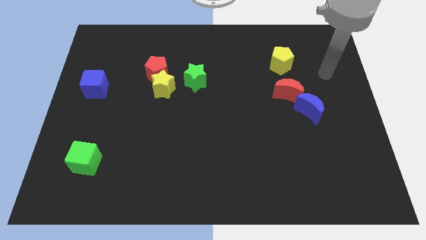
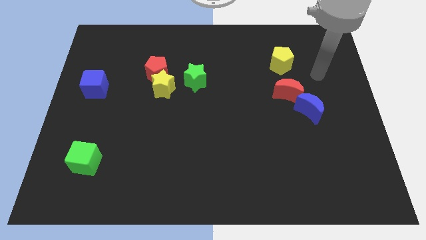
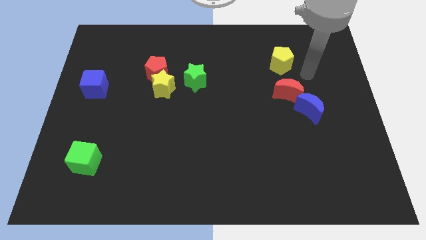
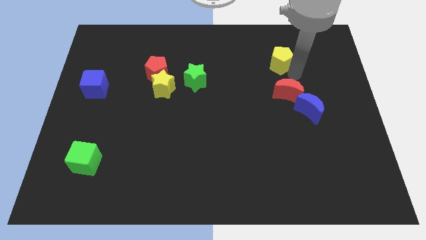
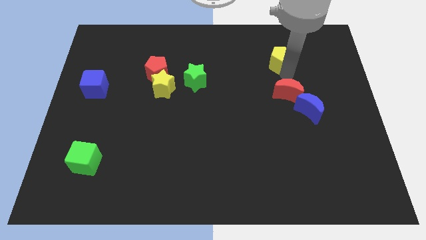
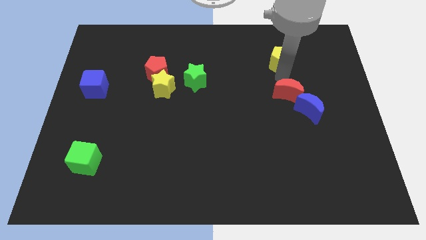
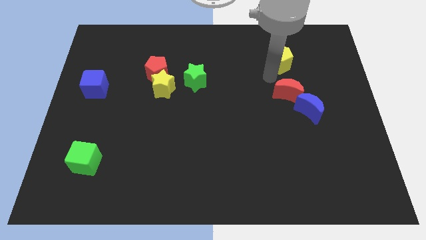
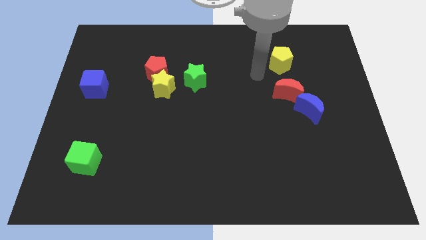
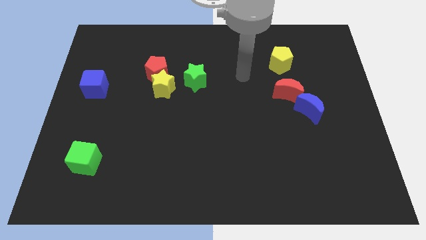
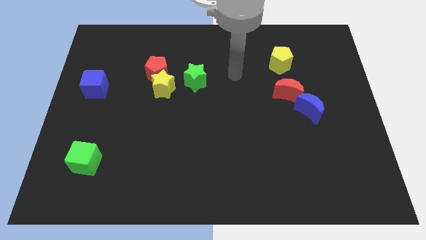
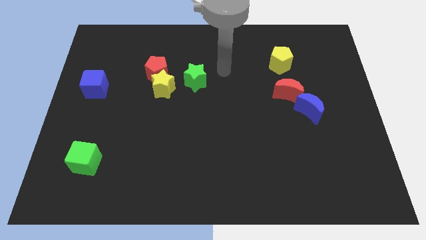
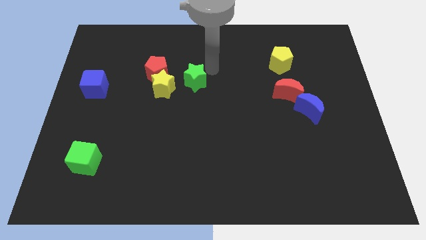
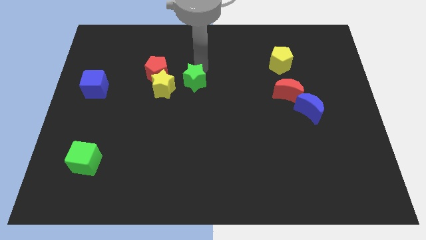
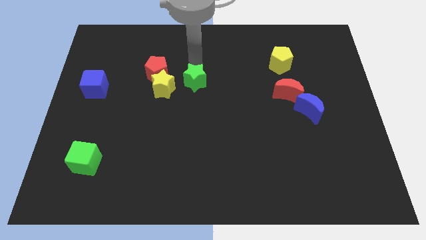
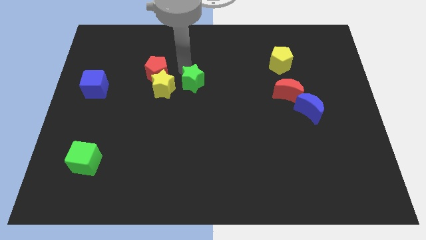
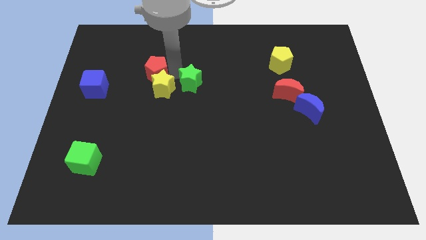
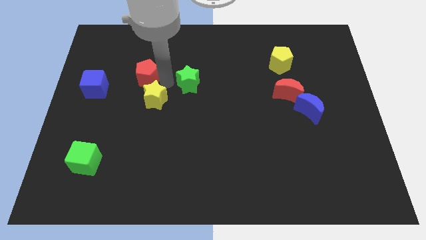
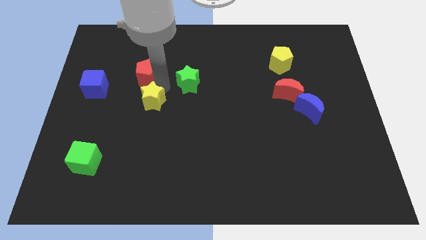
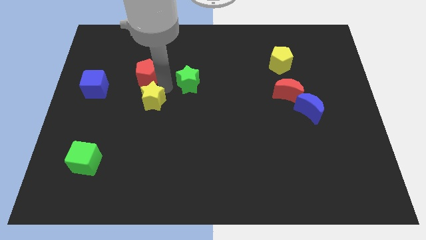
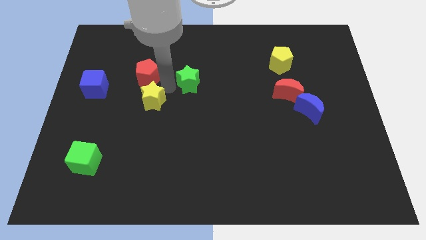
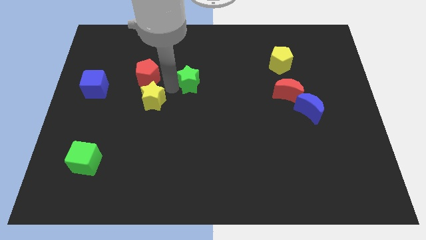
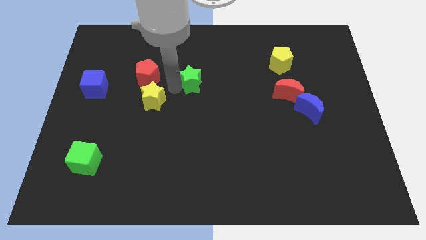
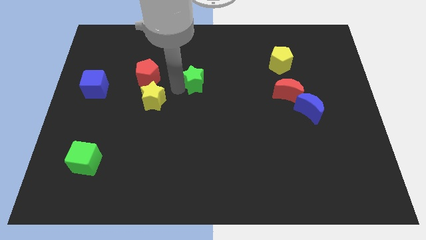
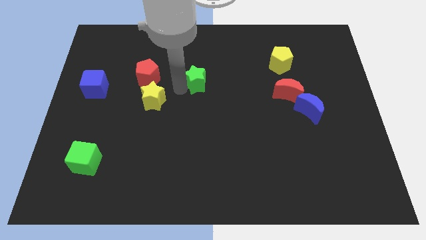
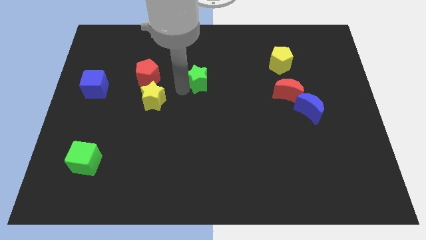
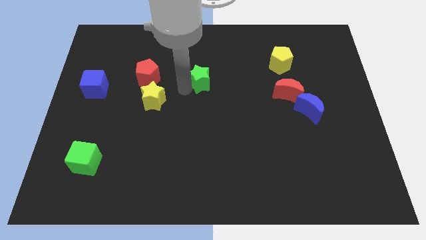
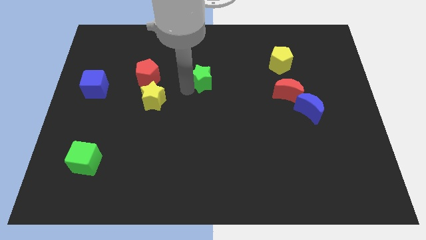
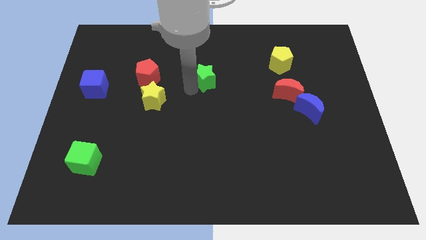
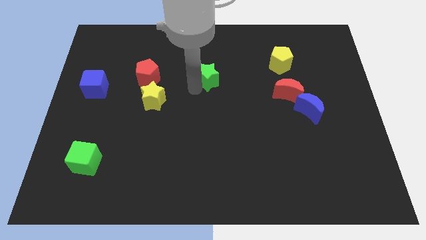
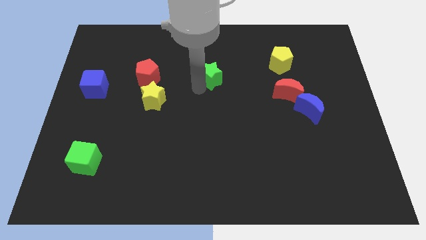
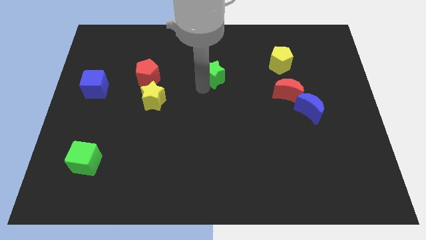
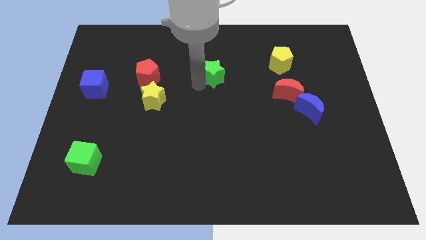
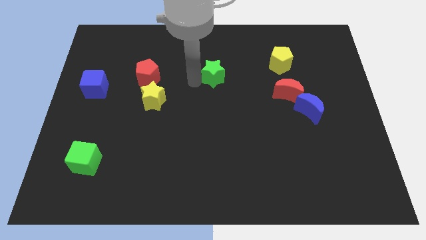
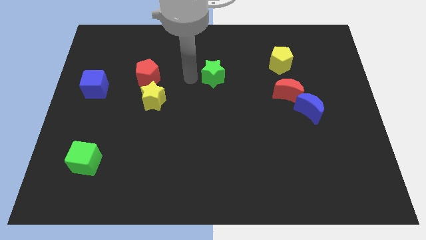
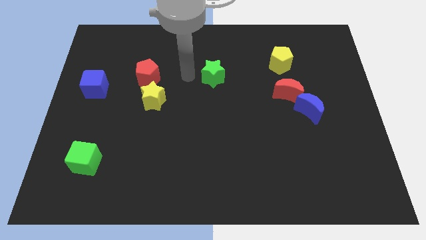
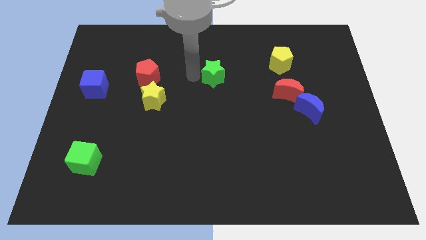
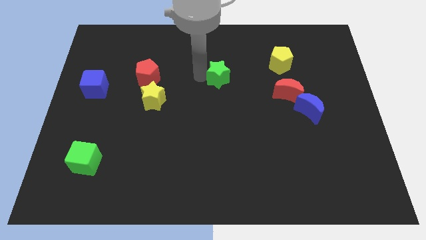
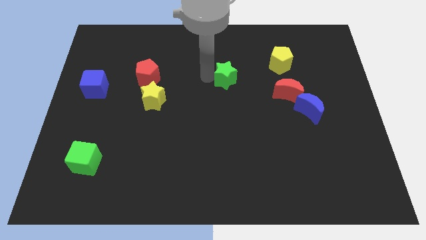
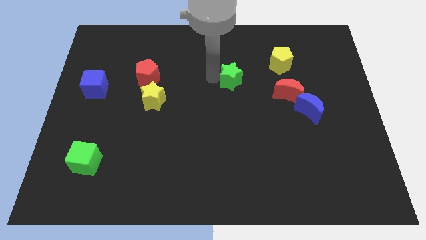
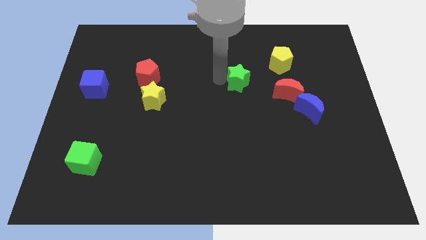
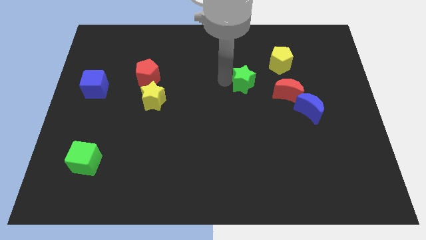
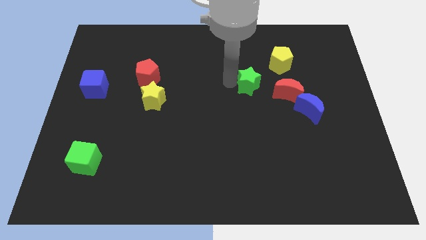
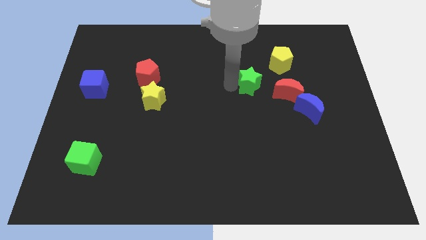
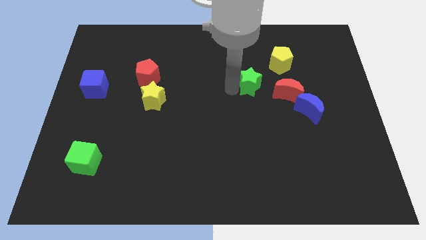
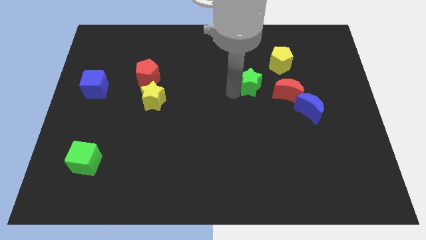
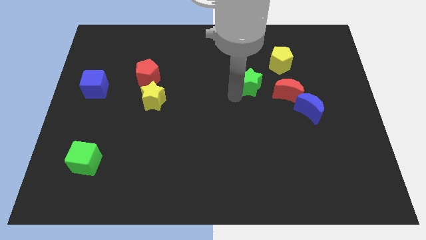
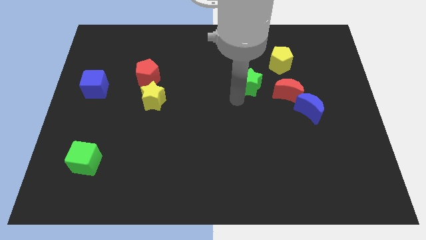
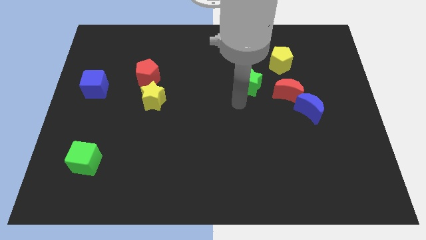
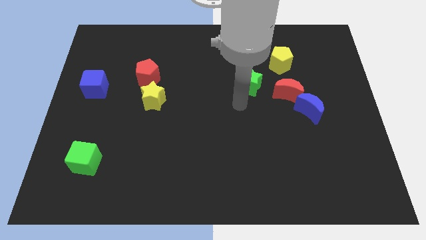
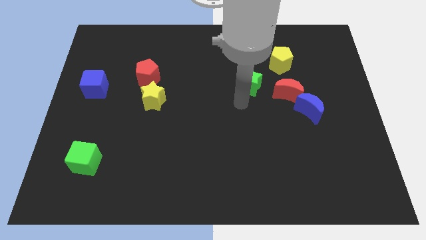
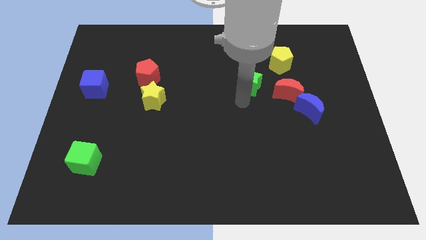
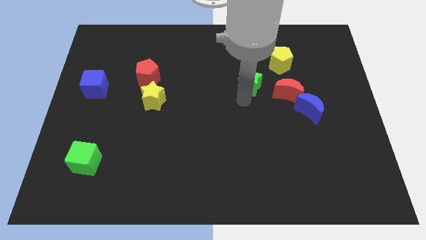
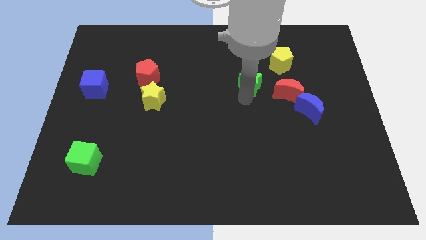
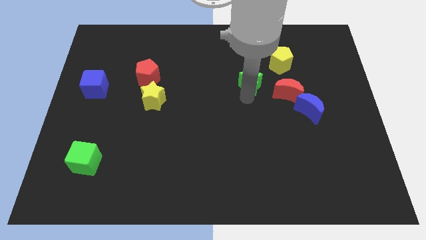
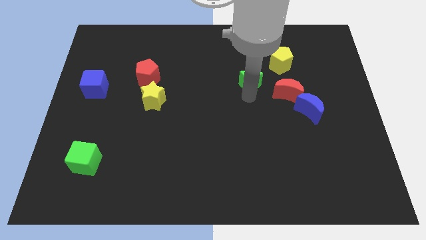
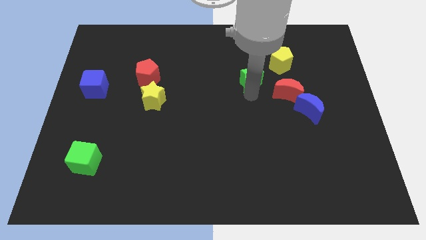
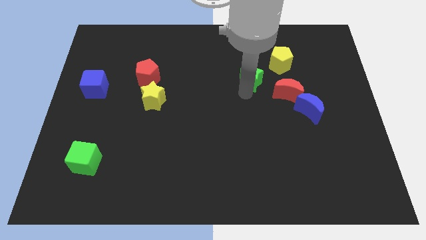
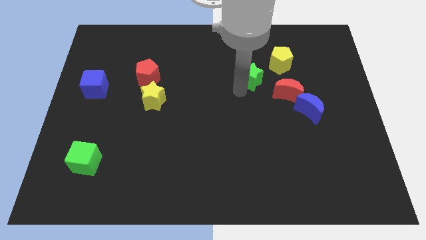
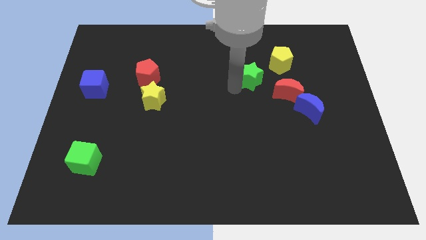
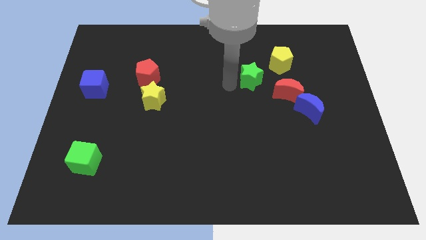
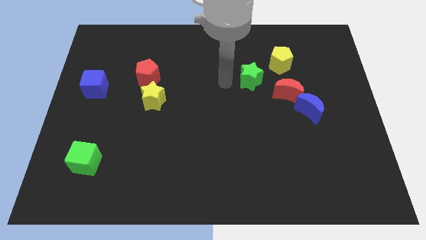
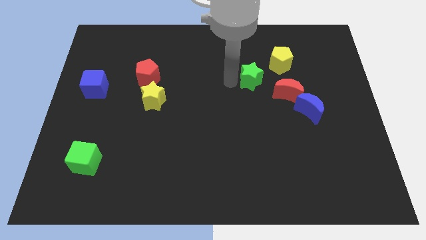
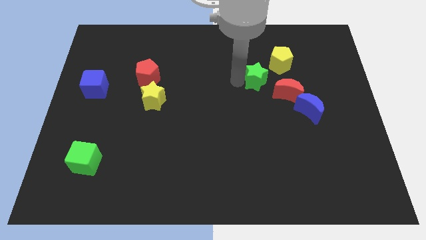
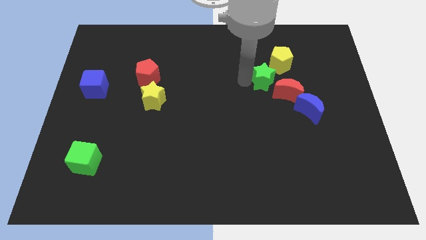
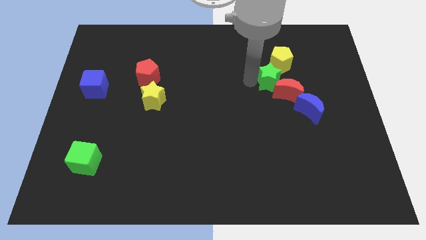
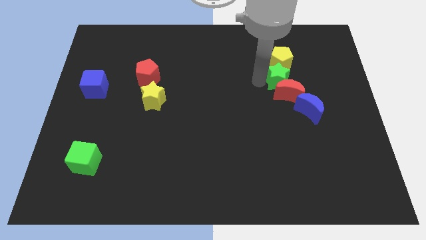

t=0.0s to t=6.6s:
move the green star right

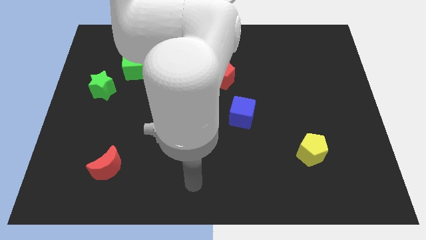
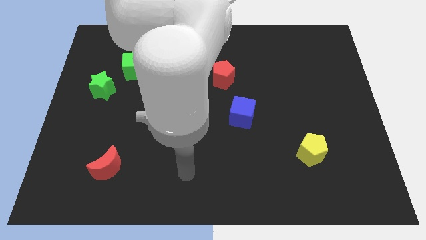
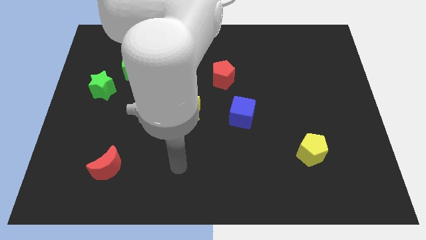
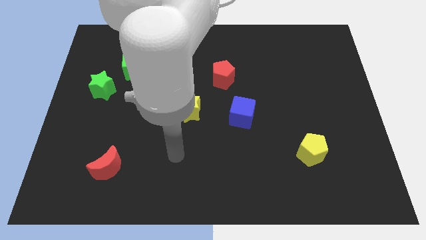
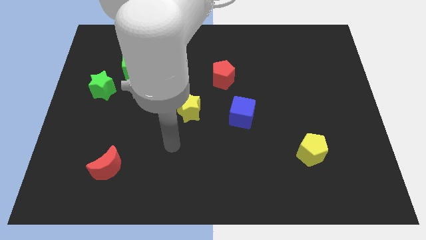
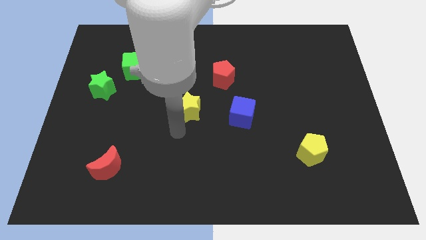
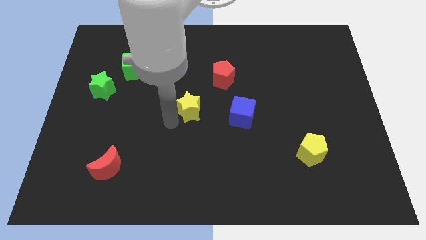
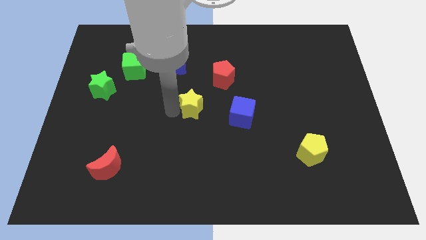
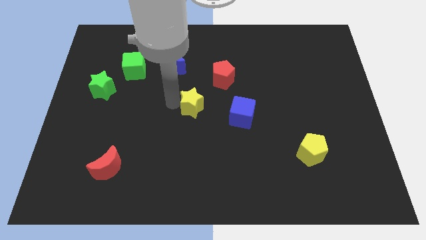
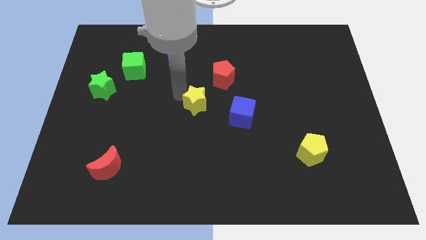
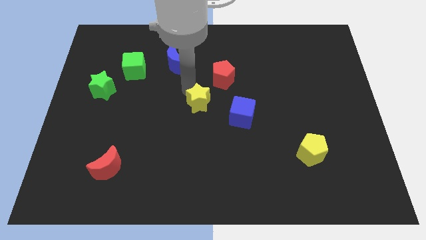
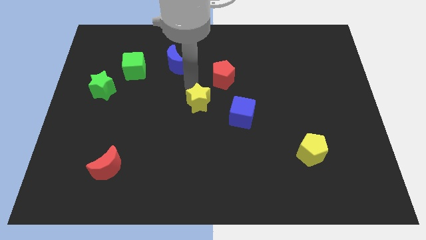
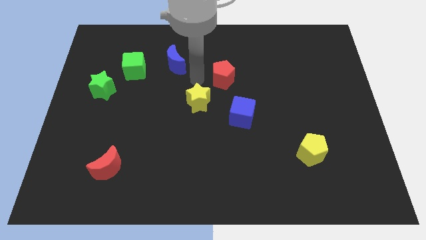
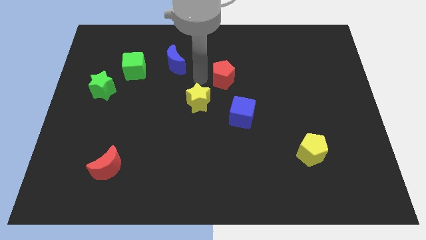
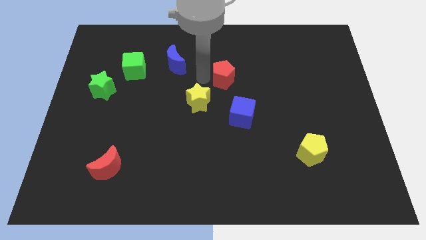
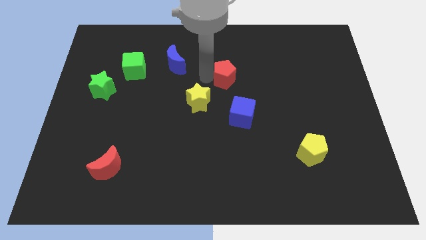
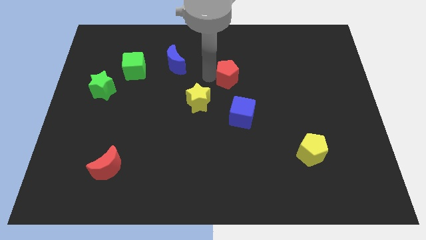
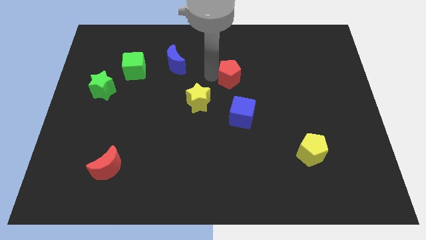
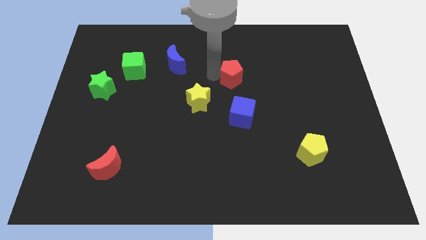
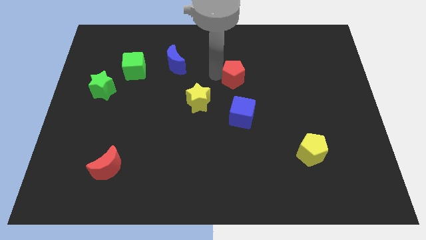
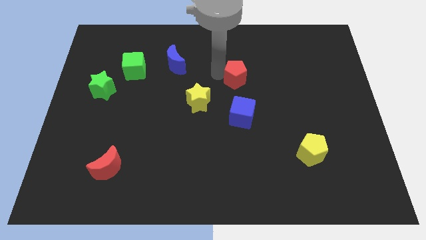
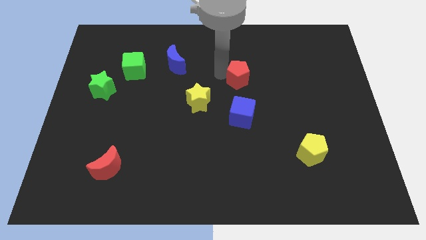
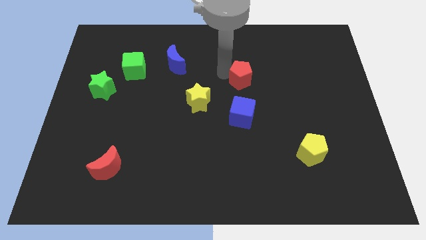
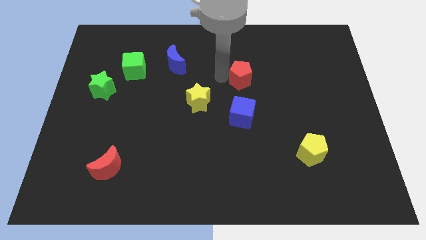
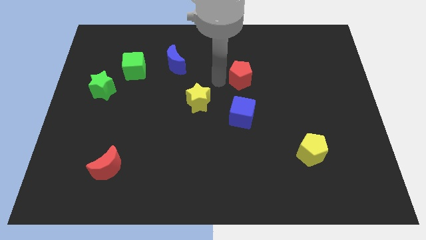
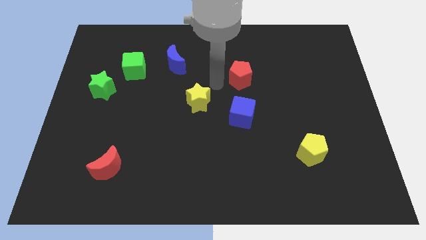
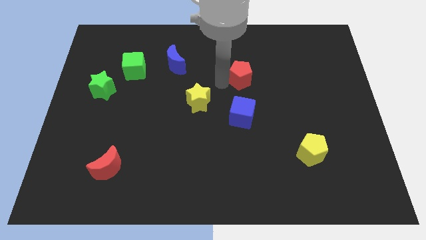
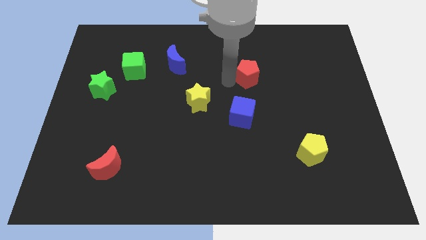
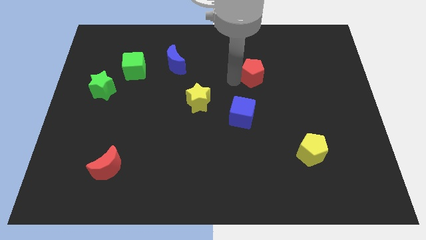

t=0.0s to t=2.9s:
push the red pentagon a bit to the right
